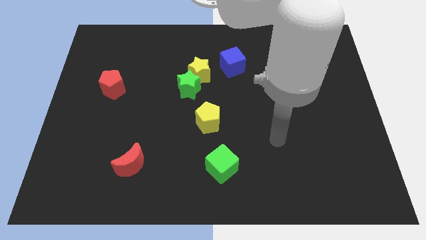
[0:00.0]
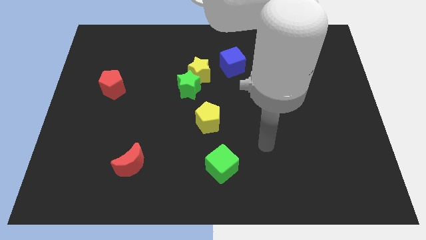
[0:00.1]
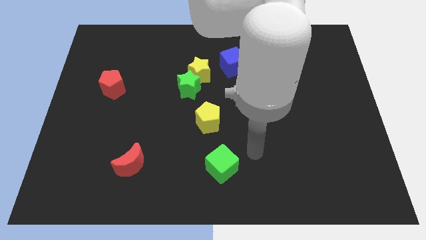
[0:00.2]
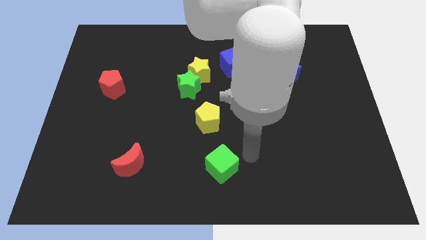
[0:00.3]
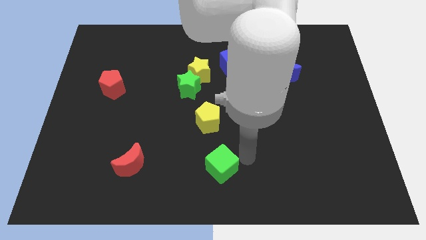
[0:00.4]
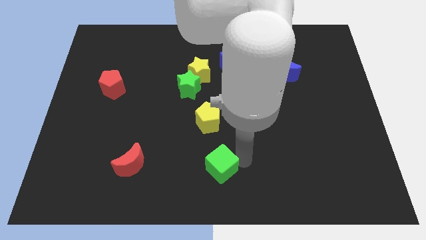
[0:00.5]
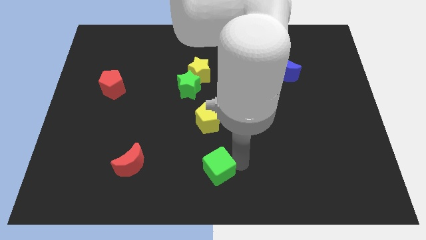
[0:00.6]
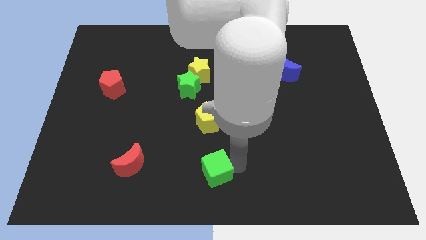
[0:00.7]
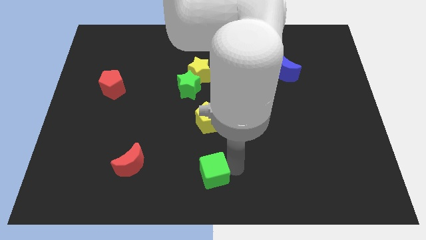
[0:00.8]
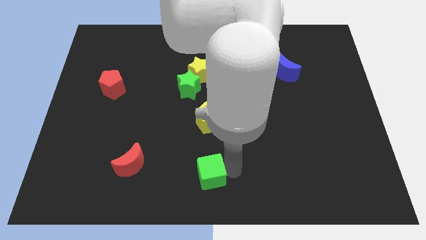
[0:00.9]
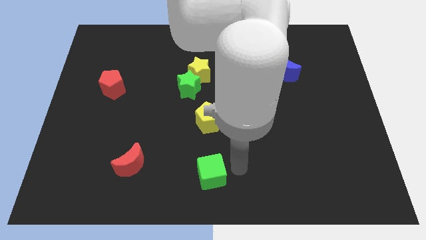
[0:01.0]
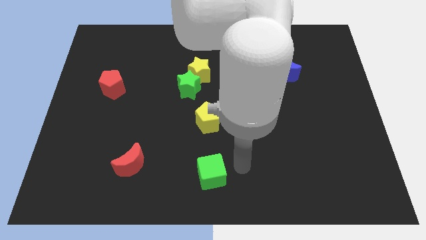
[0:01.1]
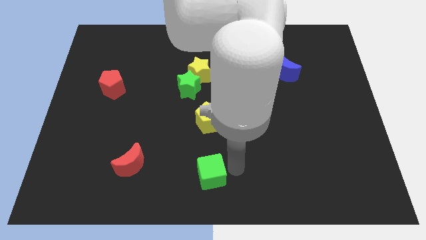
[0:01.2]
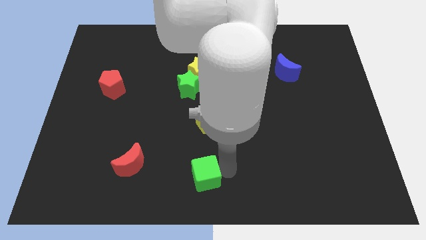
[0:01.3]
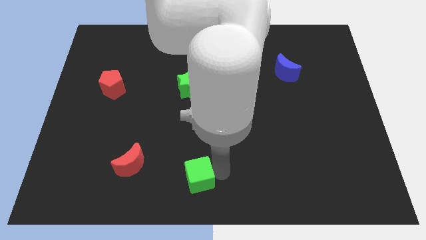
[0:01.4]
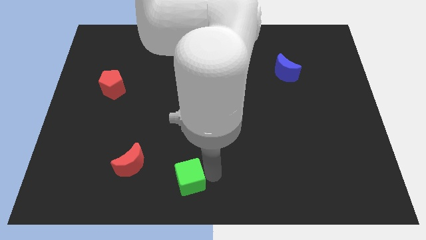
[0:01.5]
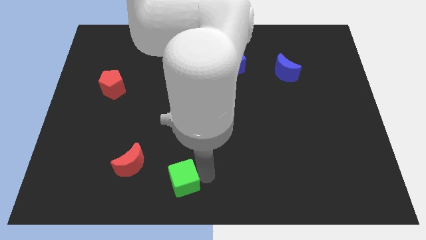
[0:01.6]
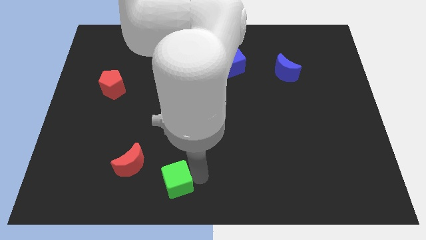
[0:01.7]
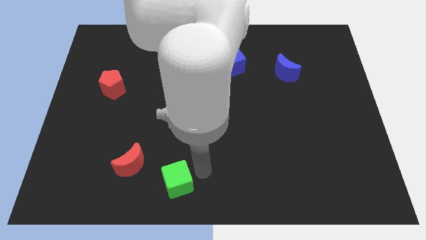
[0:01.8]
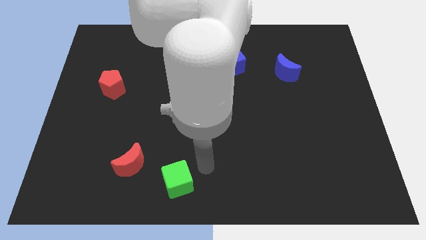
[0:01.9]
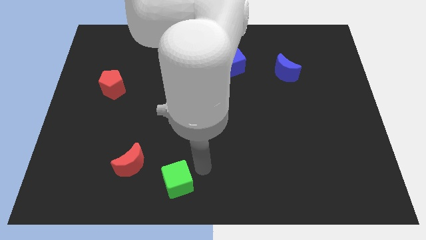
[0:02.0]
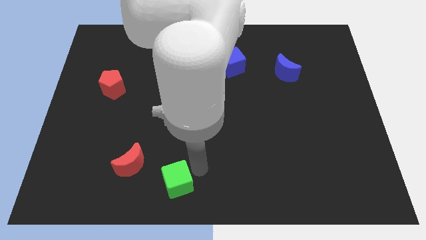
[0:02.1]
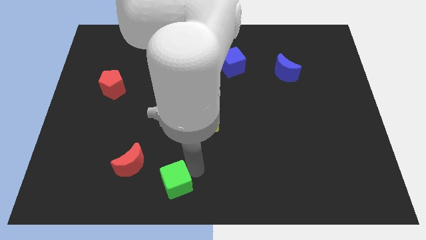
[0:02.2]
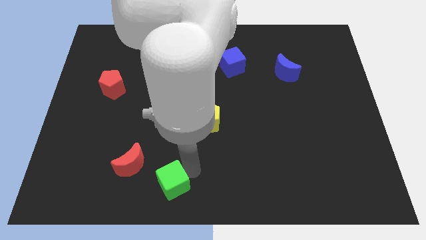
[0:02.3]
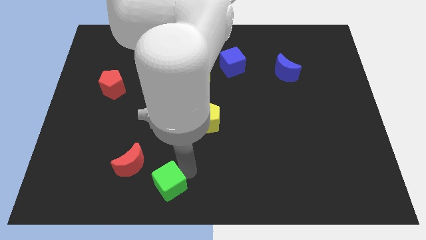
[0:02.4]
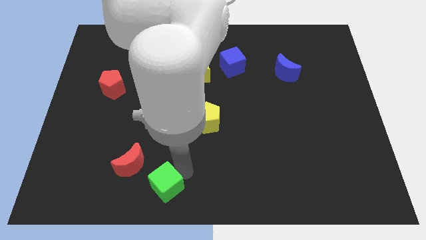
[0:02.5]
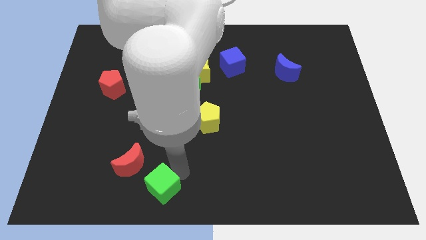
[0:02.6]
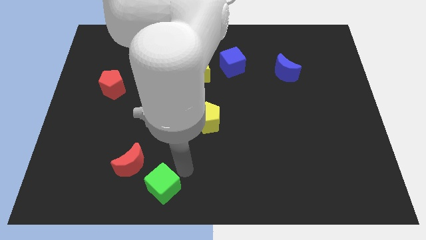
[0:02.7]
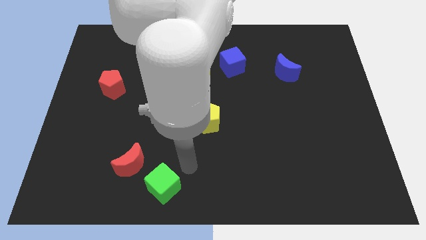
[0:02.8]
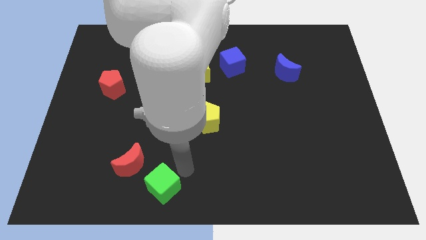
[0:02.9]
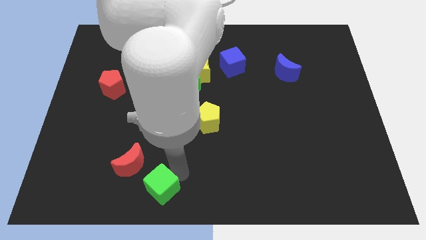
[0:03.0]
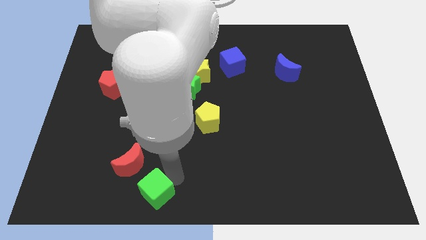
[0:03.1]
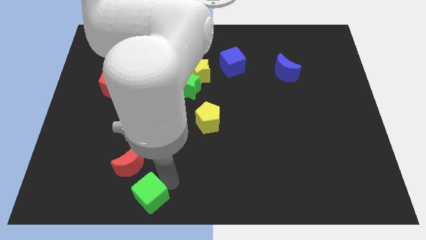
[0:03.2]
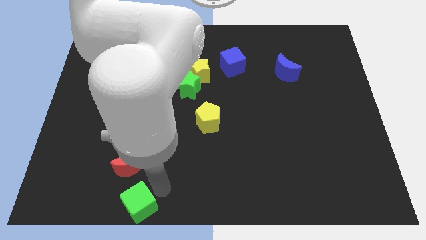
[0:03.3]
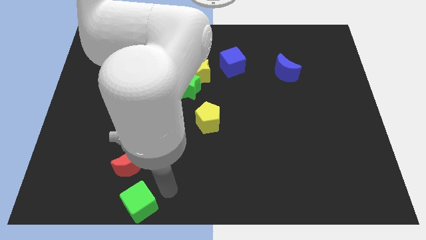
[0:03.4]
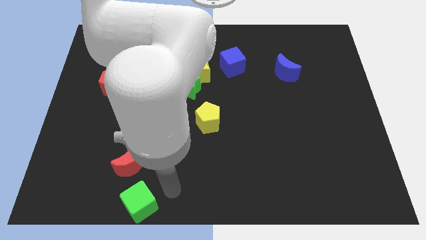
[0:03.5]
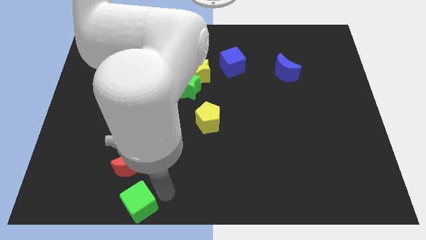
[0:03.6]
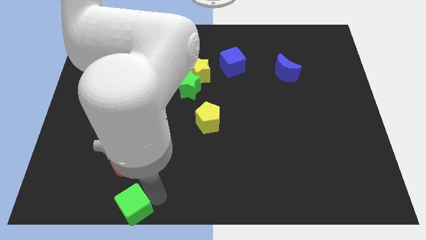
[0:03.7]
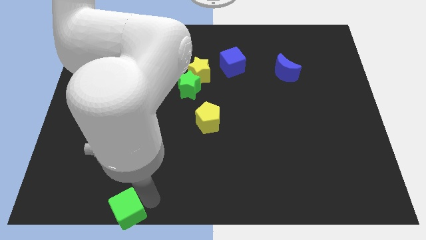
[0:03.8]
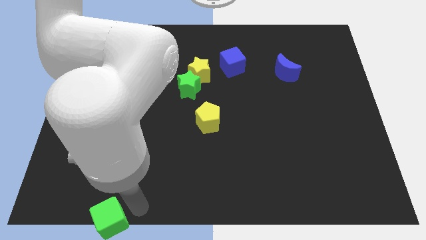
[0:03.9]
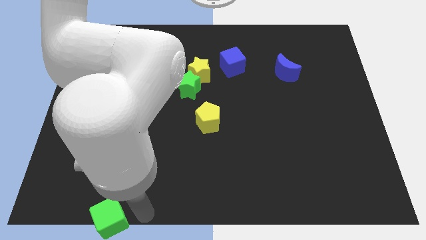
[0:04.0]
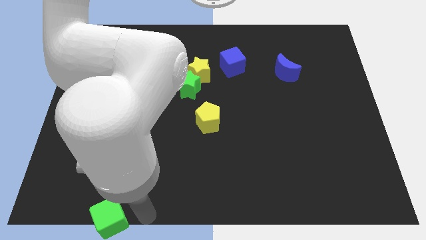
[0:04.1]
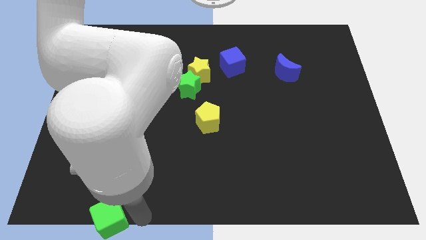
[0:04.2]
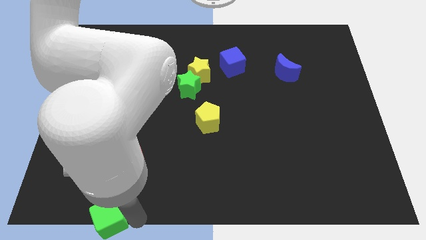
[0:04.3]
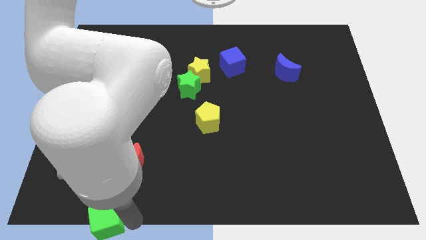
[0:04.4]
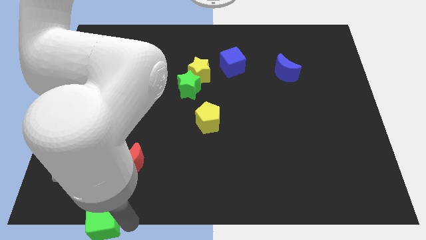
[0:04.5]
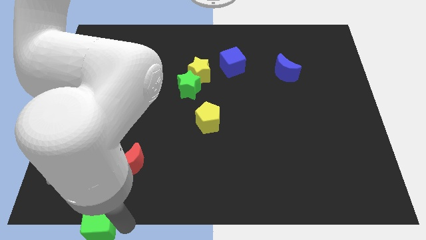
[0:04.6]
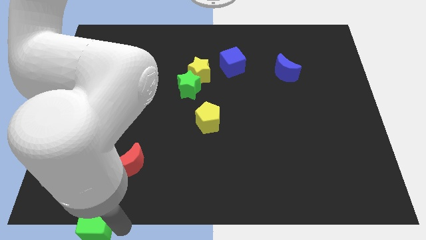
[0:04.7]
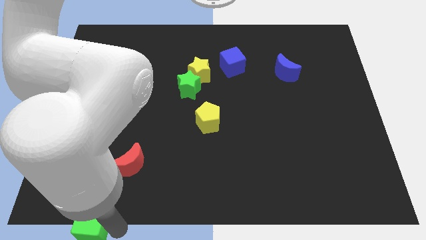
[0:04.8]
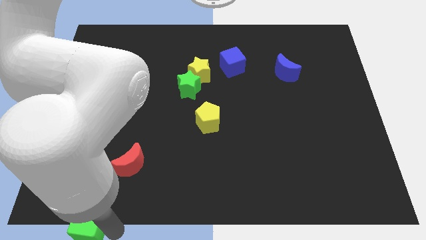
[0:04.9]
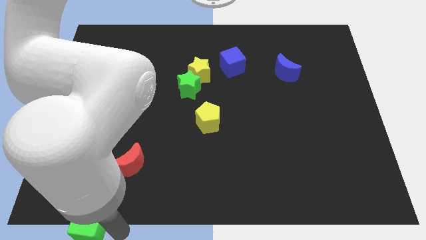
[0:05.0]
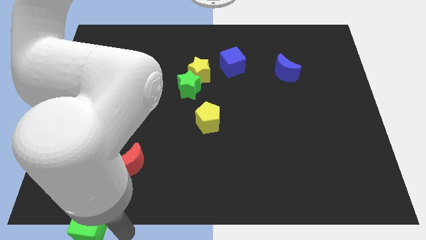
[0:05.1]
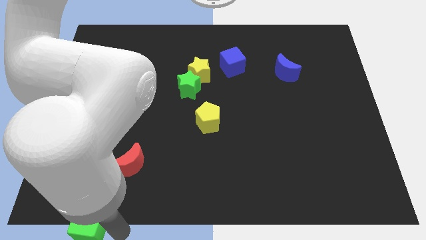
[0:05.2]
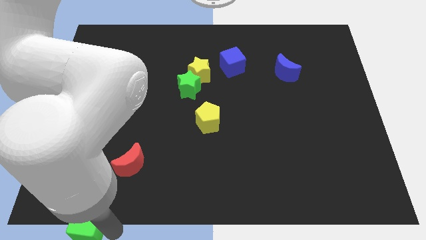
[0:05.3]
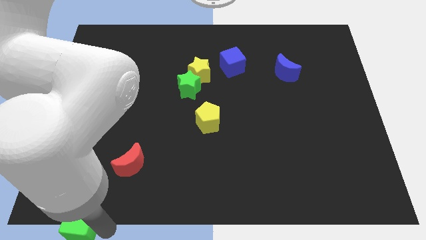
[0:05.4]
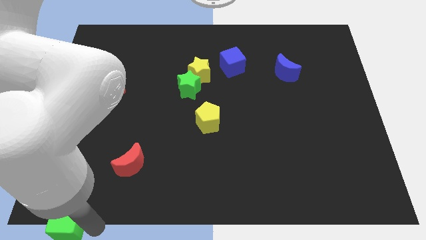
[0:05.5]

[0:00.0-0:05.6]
move the green cube to the bottom left of the board

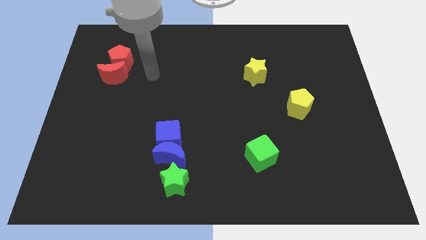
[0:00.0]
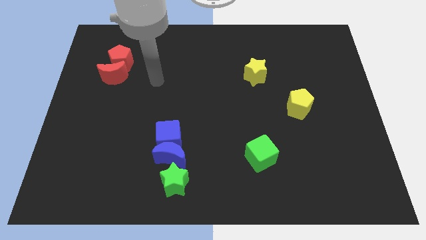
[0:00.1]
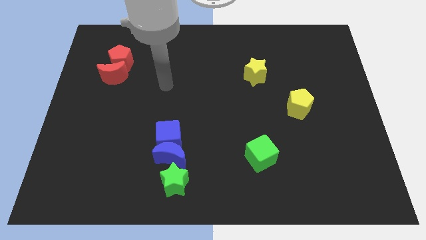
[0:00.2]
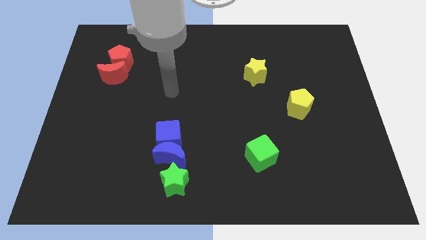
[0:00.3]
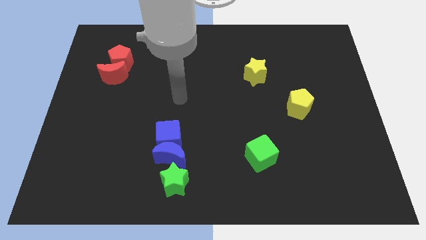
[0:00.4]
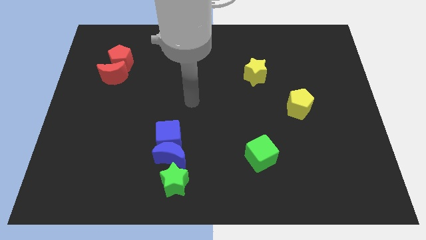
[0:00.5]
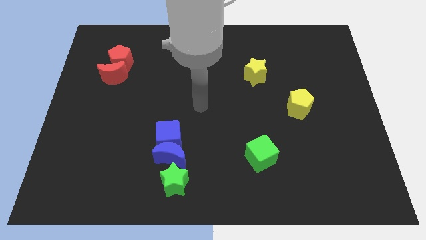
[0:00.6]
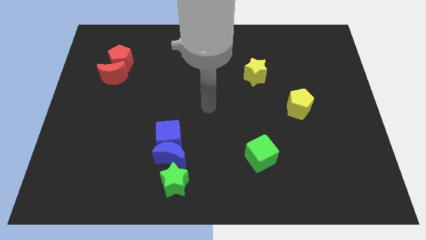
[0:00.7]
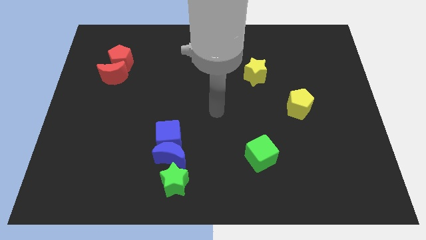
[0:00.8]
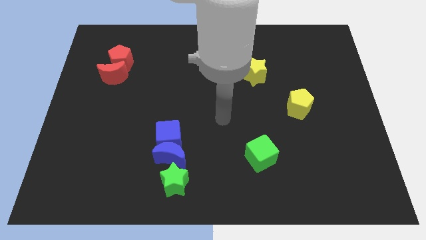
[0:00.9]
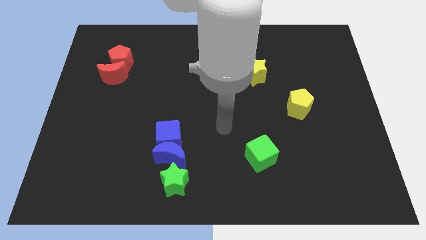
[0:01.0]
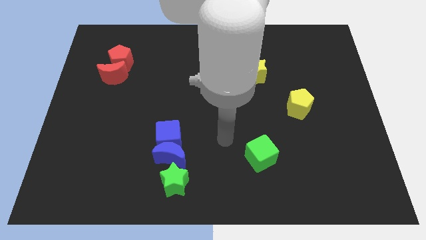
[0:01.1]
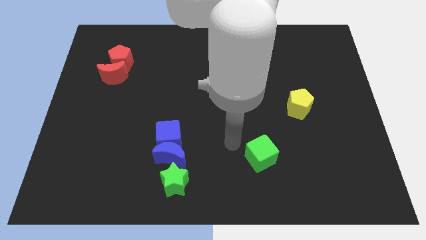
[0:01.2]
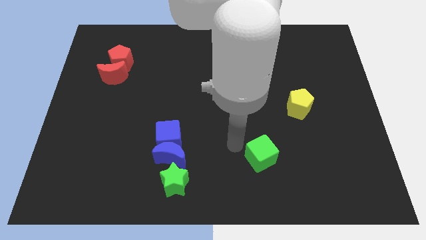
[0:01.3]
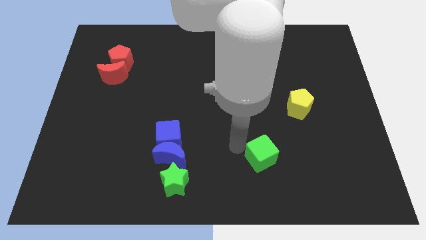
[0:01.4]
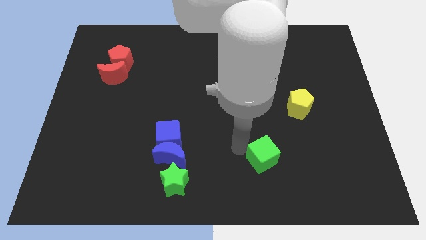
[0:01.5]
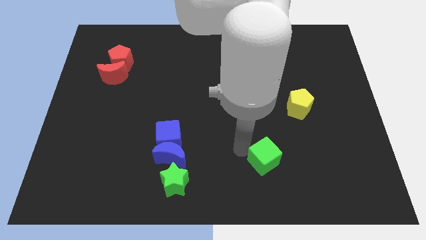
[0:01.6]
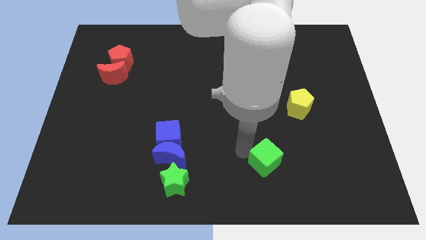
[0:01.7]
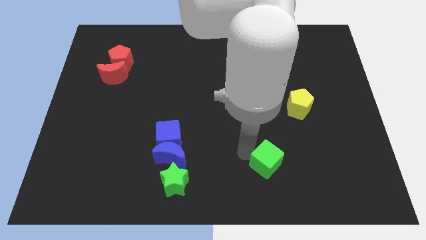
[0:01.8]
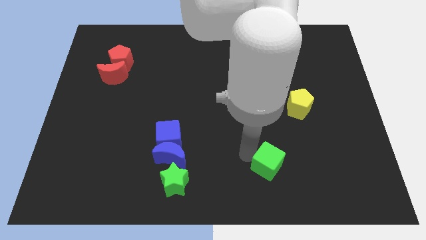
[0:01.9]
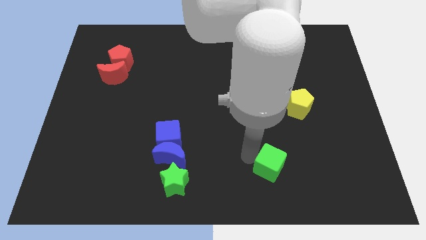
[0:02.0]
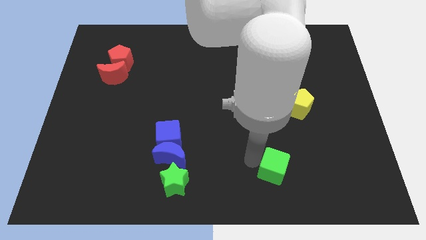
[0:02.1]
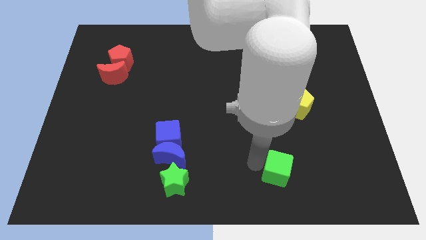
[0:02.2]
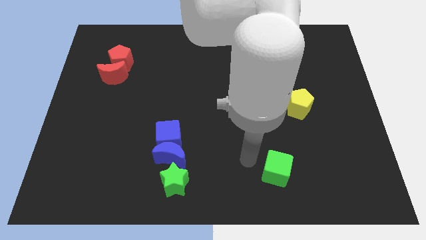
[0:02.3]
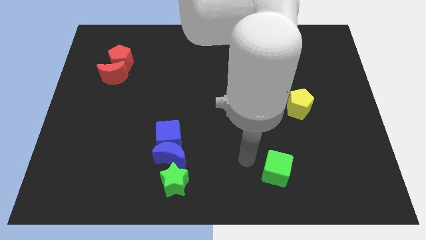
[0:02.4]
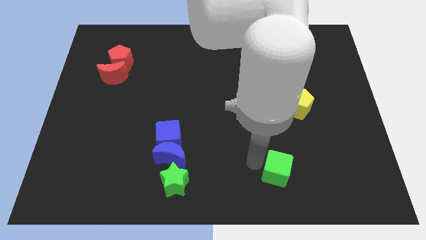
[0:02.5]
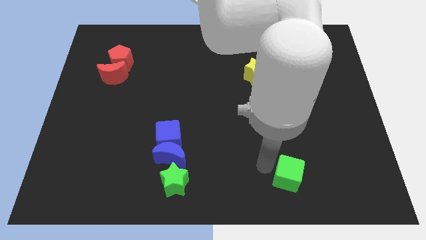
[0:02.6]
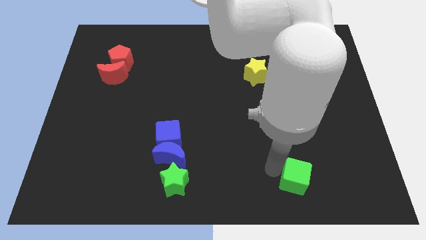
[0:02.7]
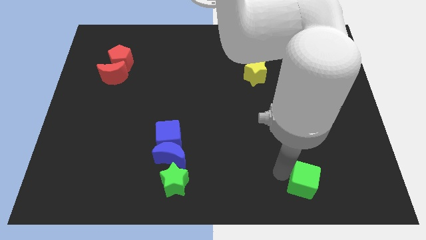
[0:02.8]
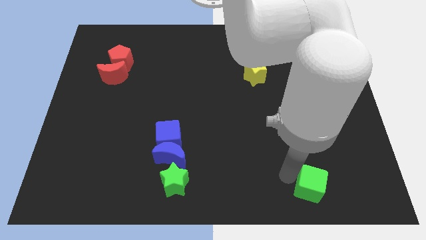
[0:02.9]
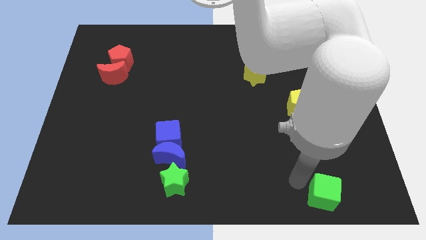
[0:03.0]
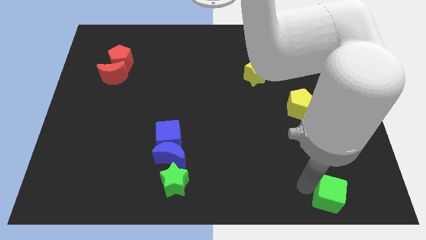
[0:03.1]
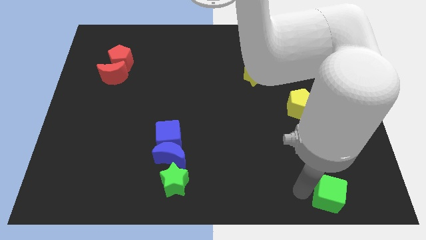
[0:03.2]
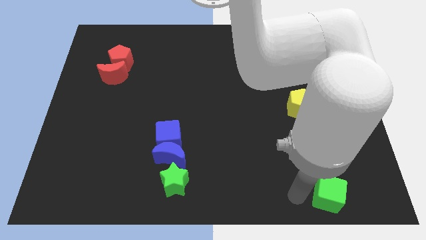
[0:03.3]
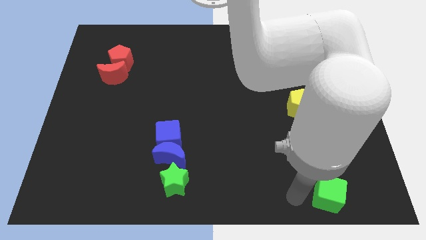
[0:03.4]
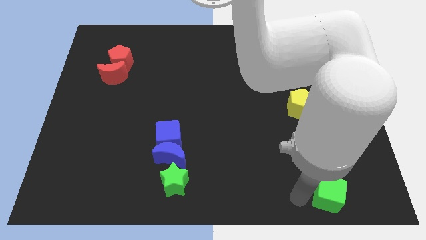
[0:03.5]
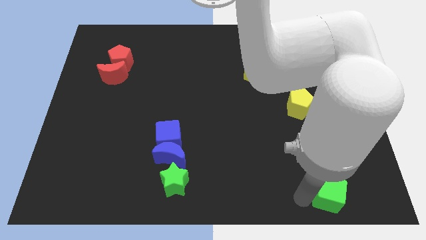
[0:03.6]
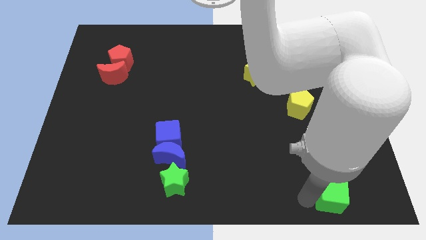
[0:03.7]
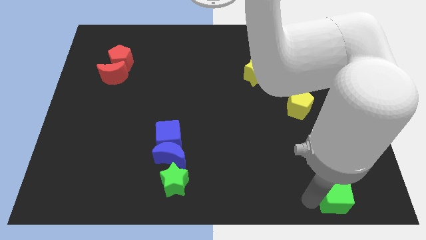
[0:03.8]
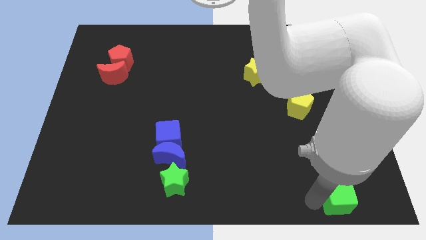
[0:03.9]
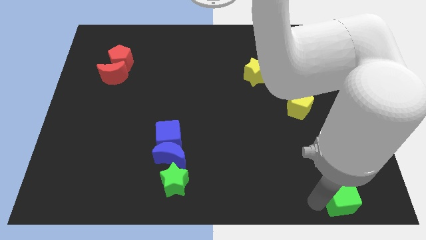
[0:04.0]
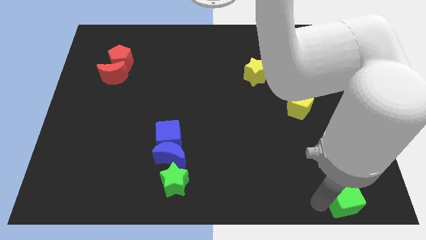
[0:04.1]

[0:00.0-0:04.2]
push the green cube to the bottom right of the board
